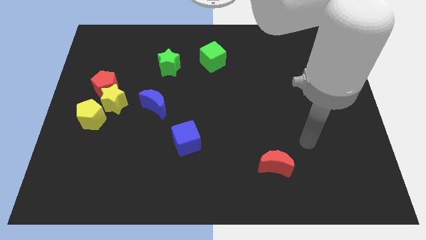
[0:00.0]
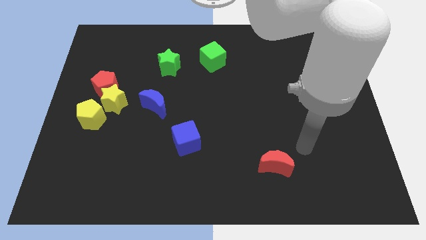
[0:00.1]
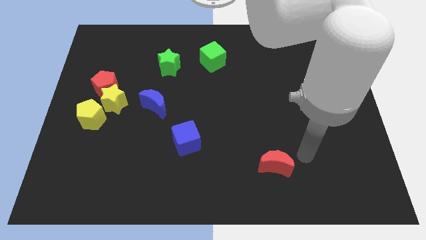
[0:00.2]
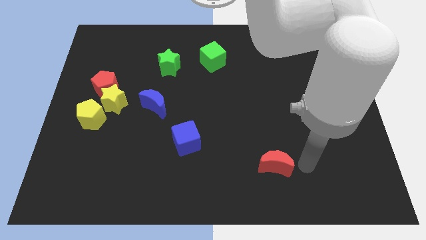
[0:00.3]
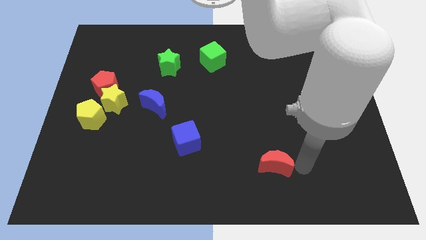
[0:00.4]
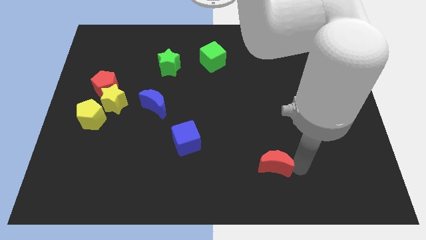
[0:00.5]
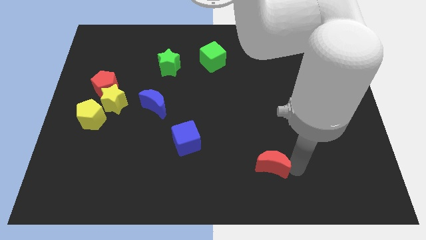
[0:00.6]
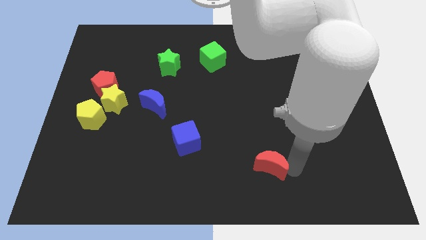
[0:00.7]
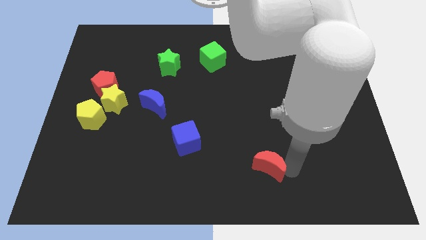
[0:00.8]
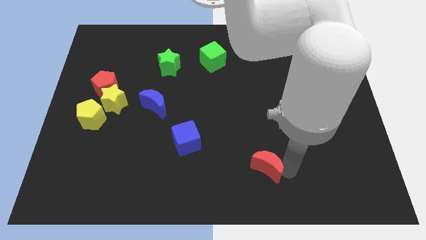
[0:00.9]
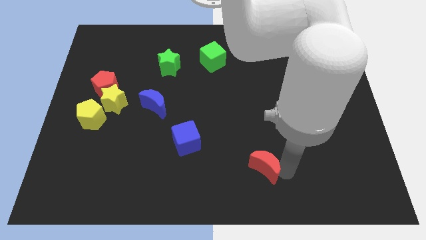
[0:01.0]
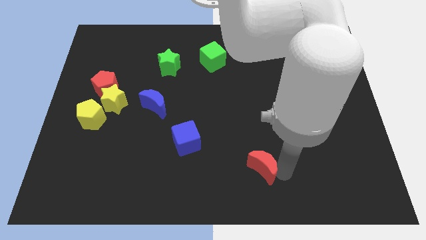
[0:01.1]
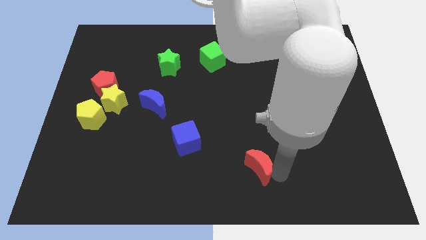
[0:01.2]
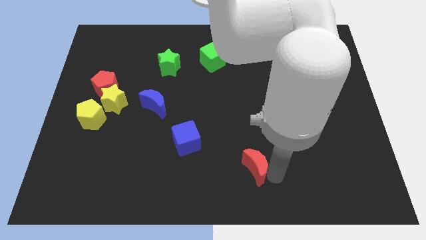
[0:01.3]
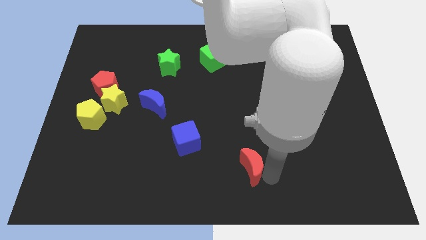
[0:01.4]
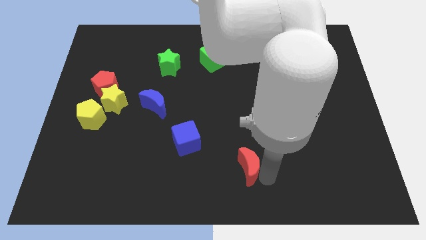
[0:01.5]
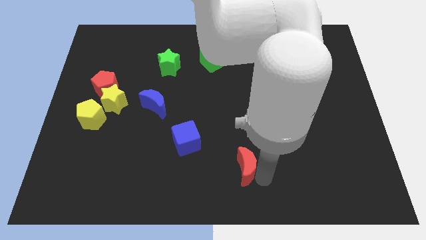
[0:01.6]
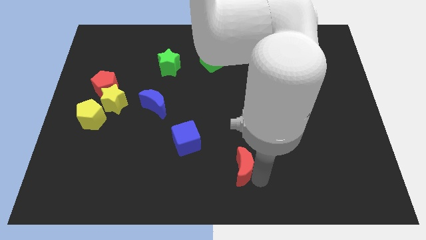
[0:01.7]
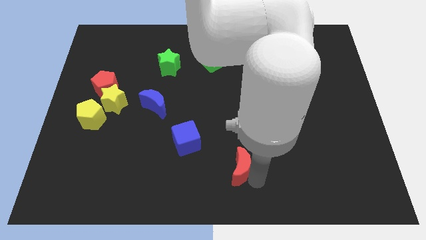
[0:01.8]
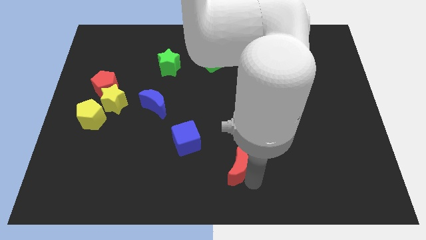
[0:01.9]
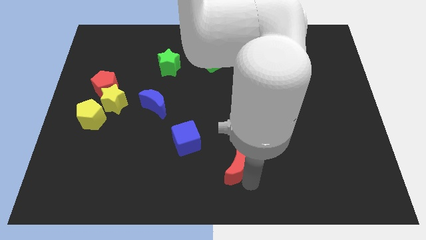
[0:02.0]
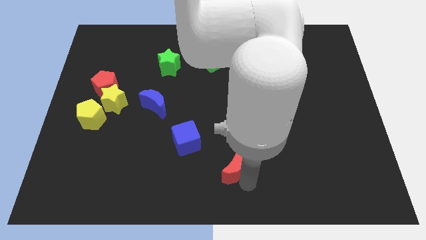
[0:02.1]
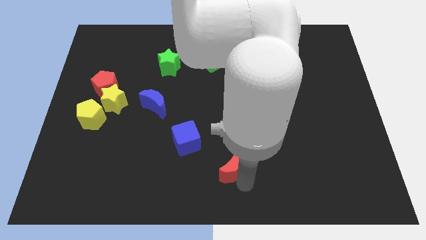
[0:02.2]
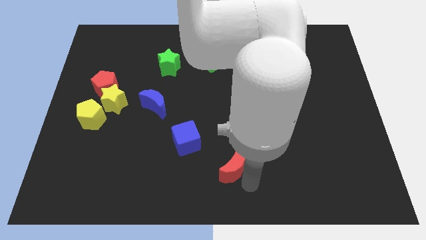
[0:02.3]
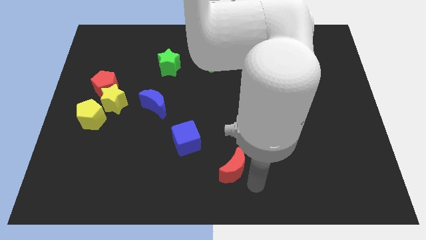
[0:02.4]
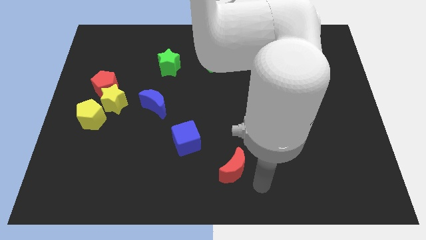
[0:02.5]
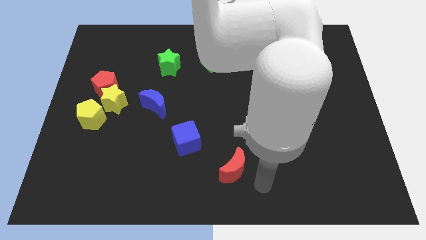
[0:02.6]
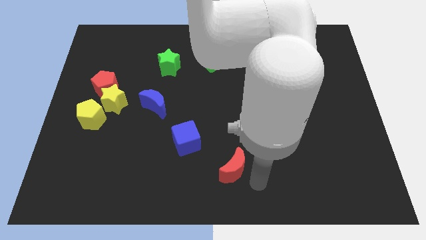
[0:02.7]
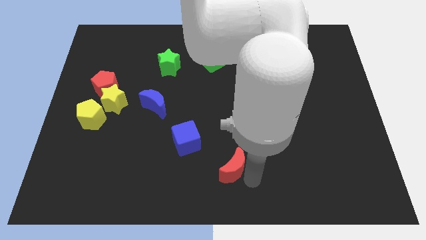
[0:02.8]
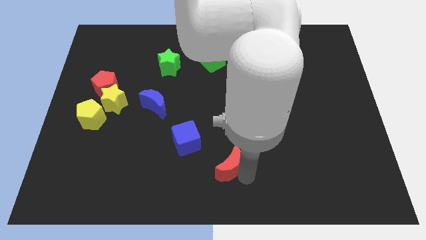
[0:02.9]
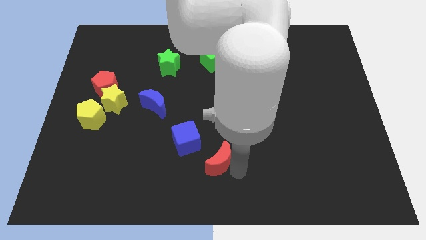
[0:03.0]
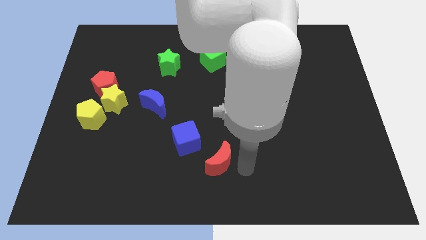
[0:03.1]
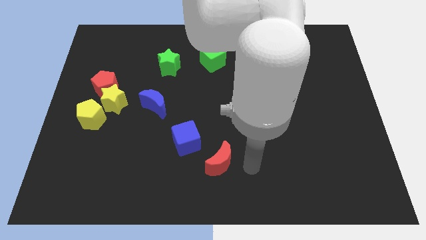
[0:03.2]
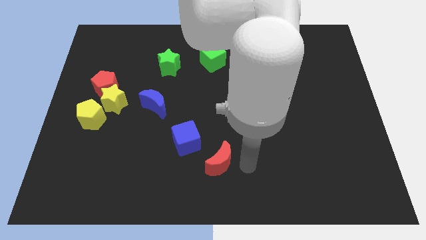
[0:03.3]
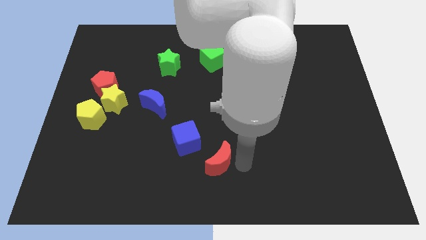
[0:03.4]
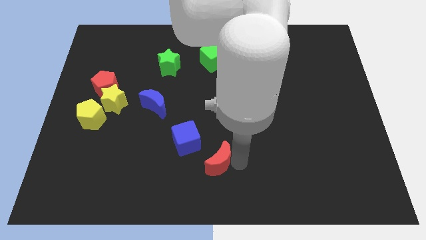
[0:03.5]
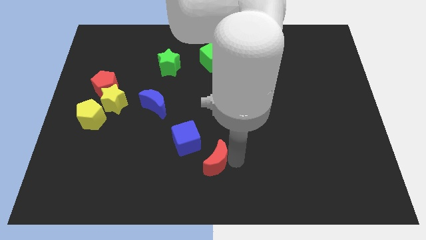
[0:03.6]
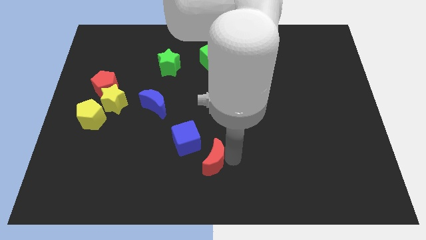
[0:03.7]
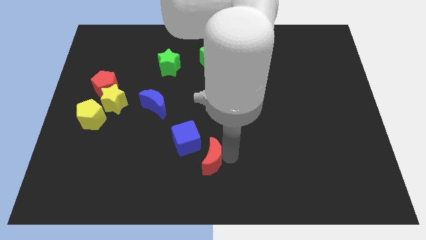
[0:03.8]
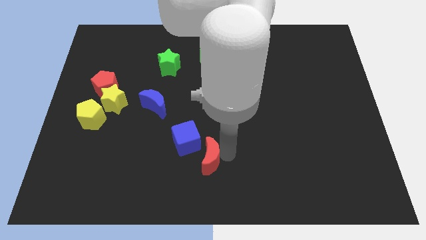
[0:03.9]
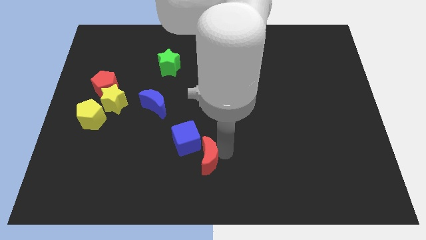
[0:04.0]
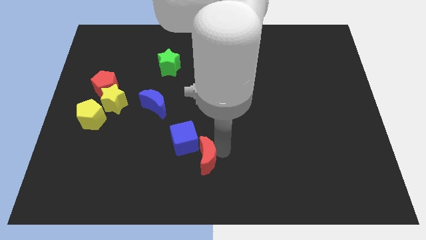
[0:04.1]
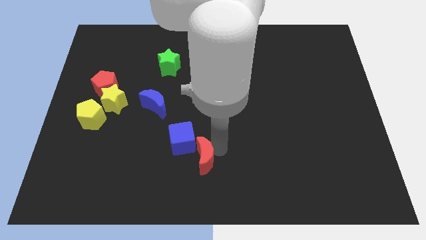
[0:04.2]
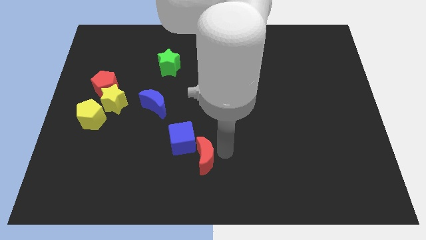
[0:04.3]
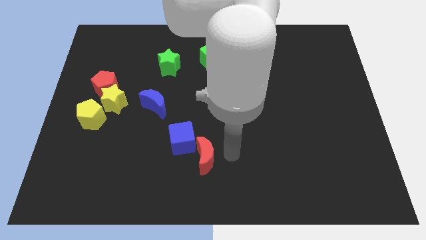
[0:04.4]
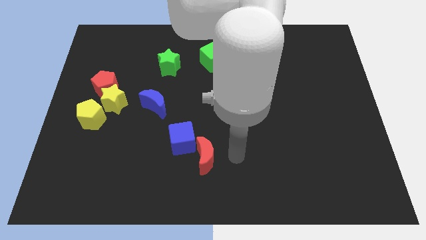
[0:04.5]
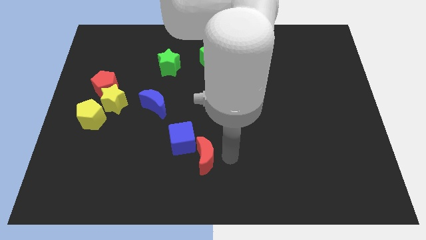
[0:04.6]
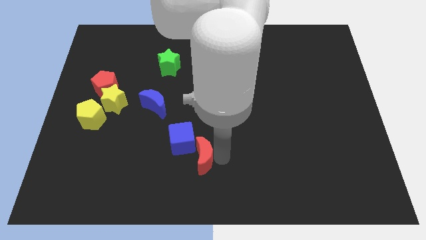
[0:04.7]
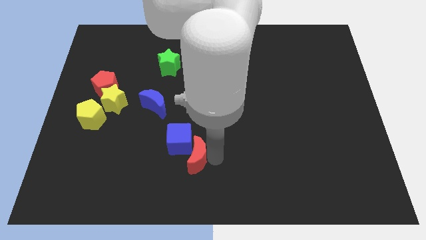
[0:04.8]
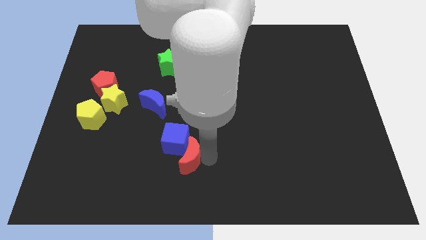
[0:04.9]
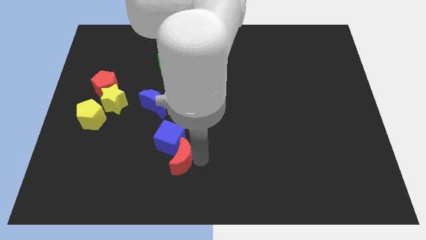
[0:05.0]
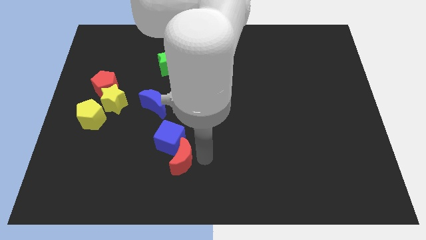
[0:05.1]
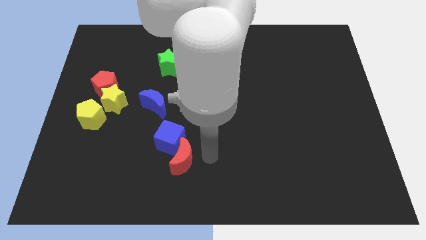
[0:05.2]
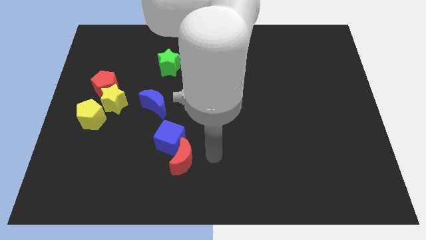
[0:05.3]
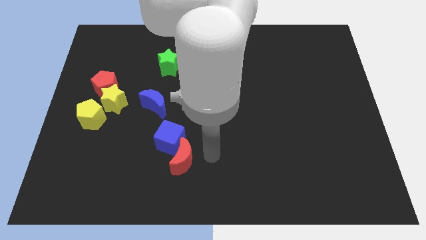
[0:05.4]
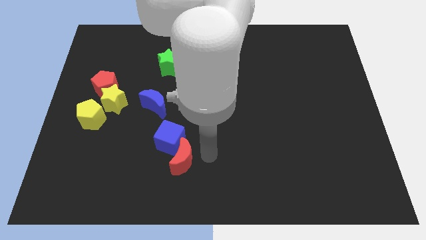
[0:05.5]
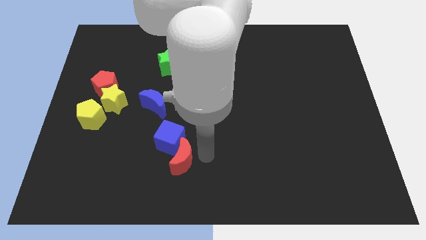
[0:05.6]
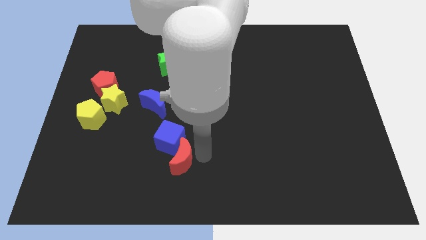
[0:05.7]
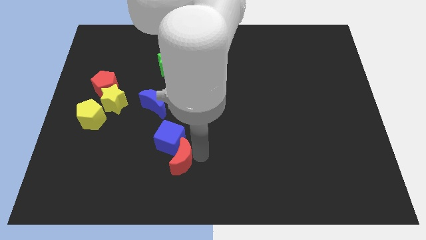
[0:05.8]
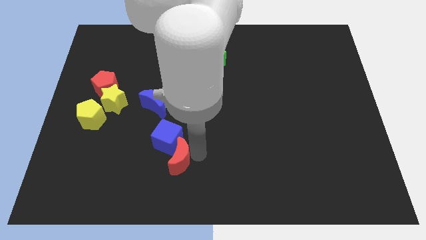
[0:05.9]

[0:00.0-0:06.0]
slide the red moon left

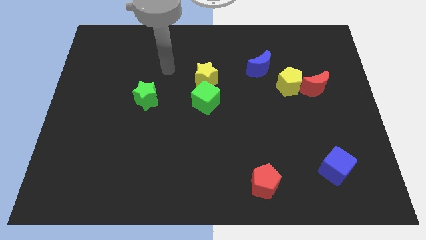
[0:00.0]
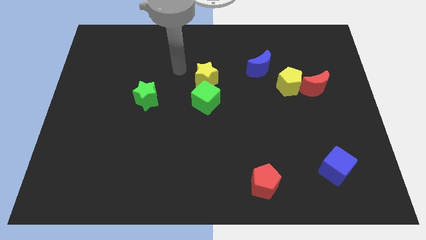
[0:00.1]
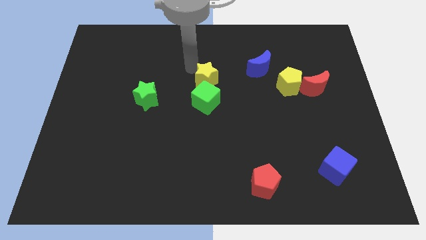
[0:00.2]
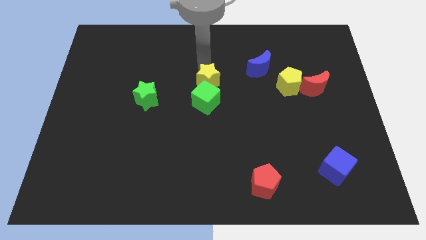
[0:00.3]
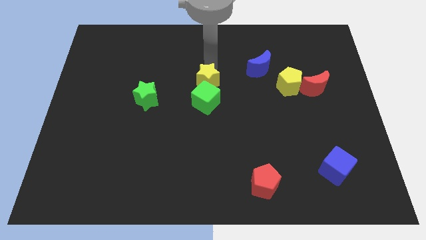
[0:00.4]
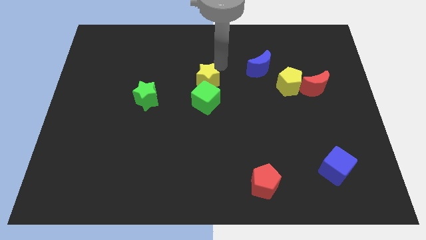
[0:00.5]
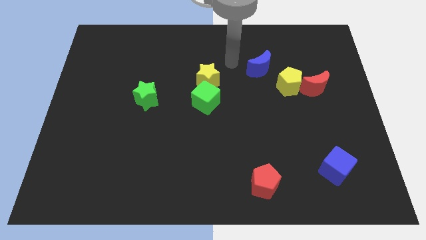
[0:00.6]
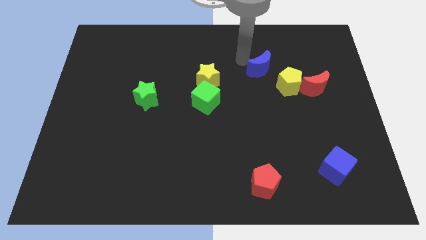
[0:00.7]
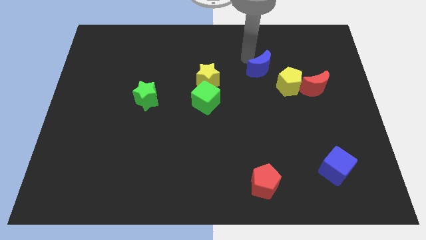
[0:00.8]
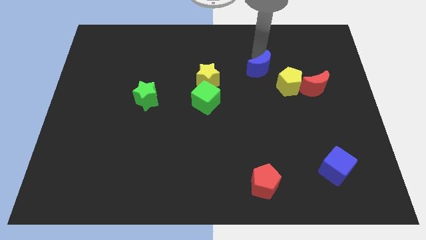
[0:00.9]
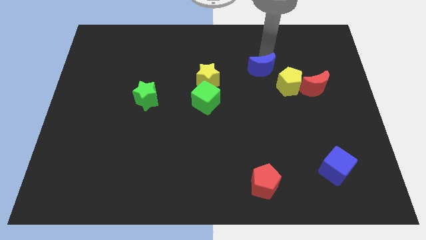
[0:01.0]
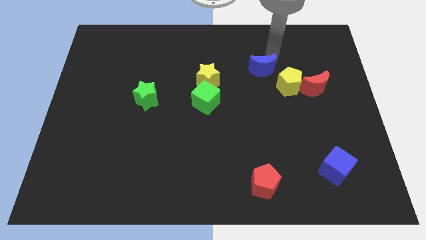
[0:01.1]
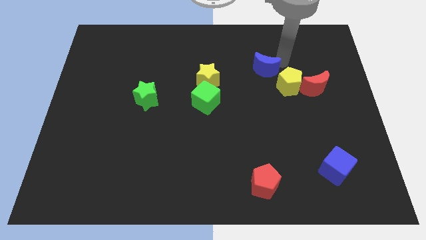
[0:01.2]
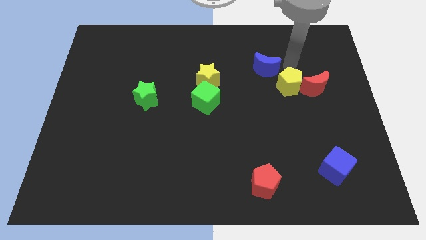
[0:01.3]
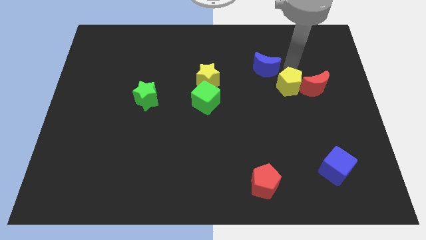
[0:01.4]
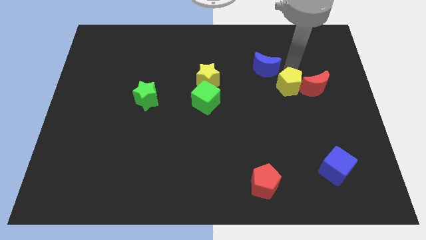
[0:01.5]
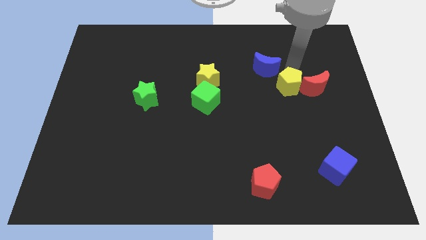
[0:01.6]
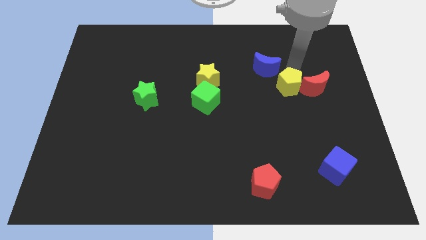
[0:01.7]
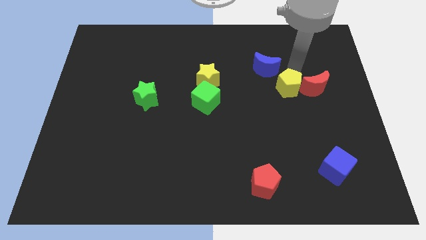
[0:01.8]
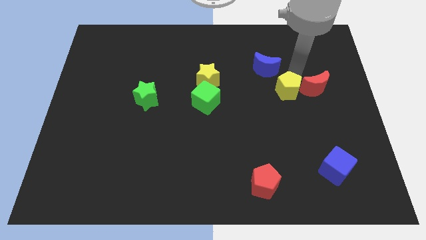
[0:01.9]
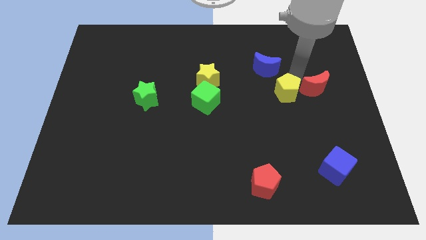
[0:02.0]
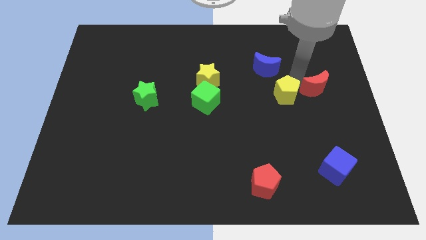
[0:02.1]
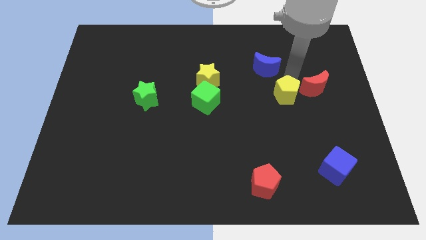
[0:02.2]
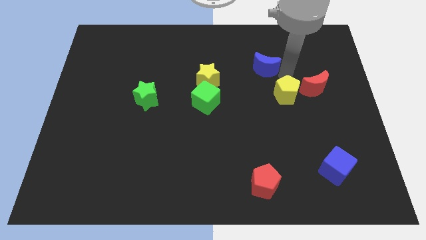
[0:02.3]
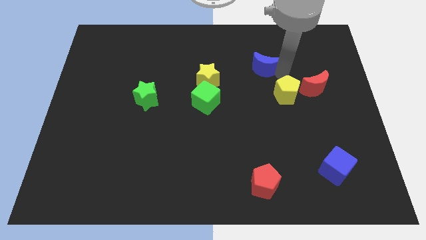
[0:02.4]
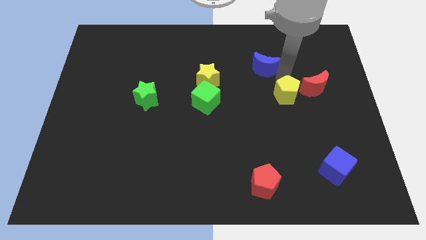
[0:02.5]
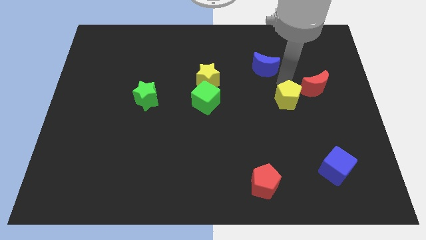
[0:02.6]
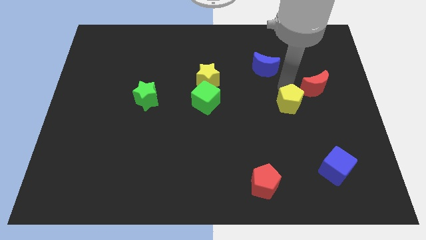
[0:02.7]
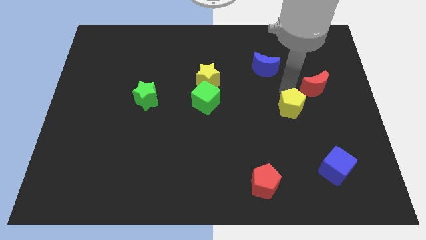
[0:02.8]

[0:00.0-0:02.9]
slightly slide the yellow pentagon downwards
